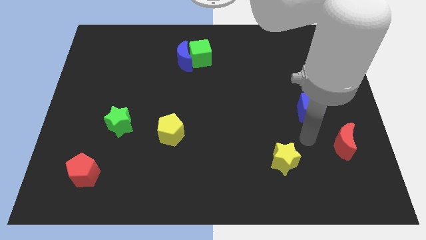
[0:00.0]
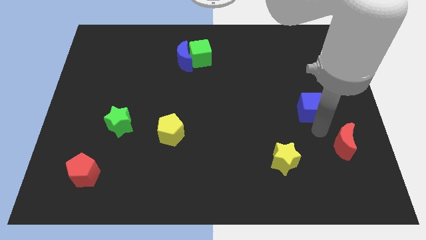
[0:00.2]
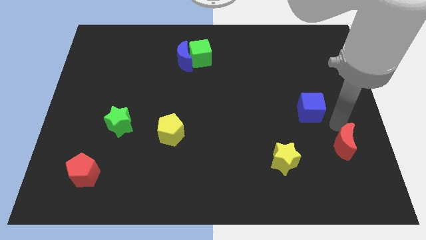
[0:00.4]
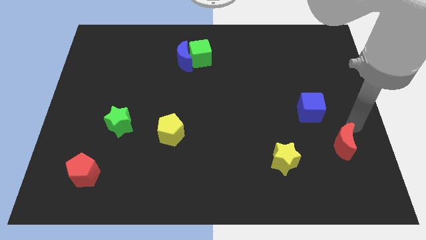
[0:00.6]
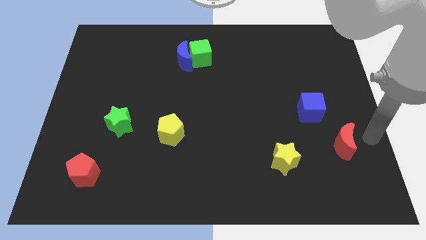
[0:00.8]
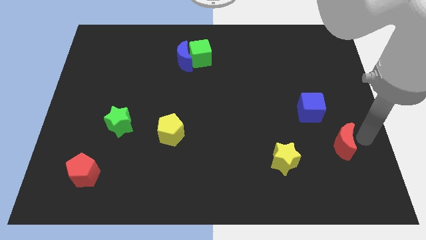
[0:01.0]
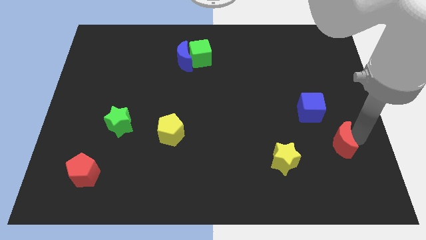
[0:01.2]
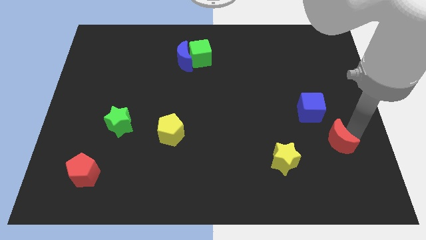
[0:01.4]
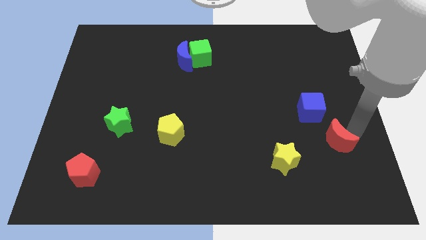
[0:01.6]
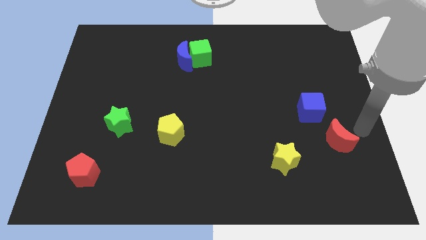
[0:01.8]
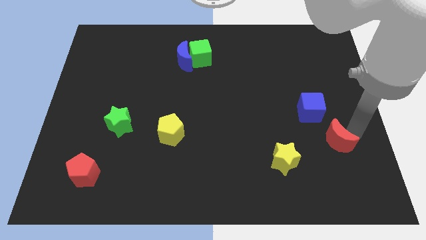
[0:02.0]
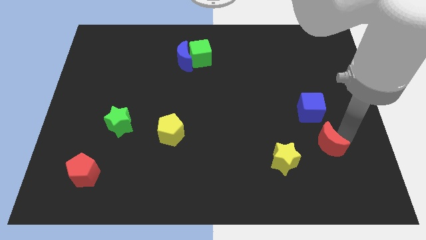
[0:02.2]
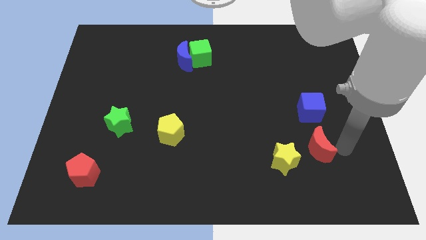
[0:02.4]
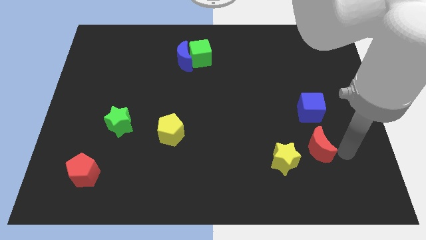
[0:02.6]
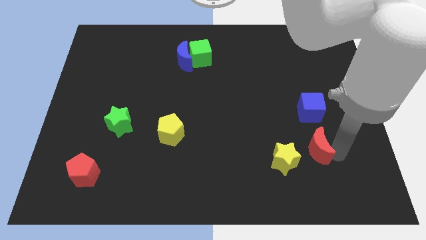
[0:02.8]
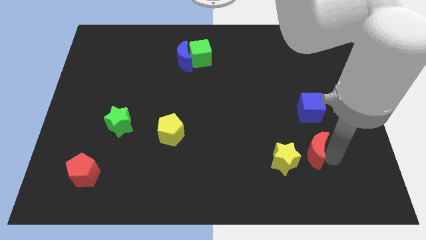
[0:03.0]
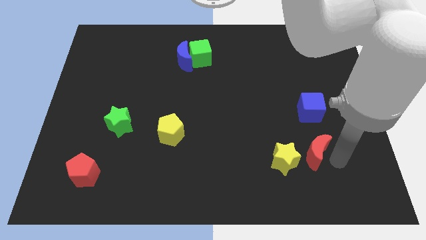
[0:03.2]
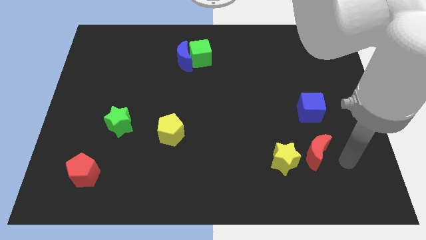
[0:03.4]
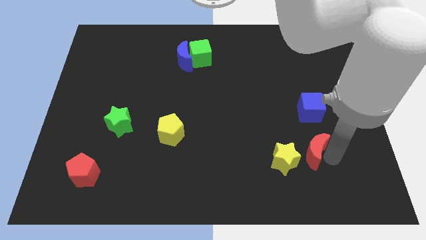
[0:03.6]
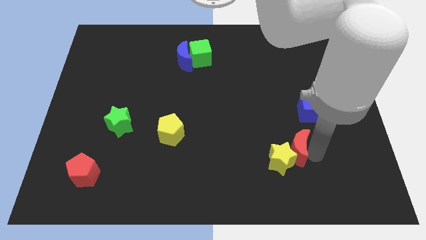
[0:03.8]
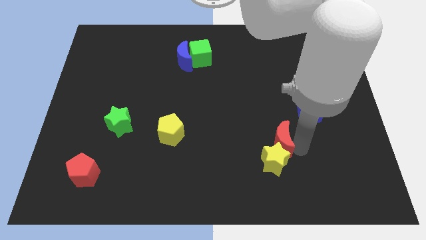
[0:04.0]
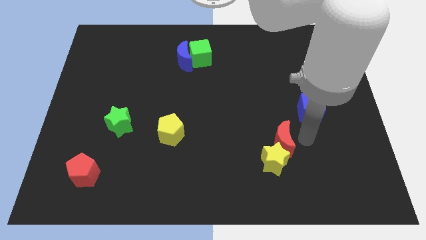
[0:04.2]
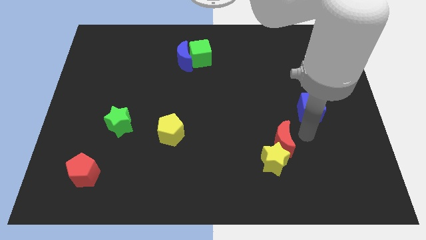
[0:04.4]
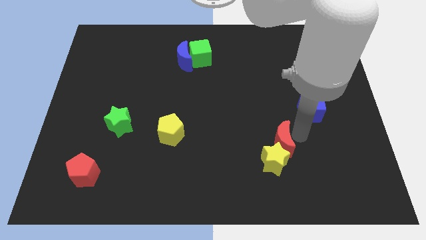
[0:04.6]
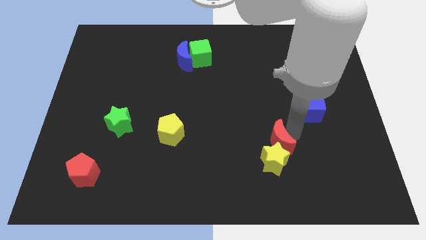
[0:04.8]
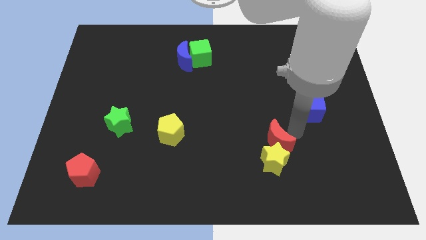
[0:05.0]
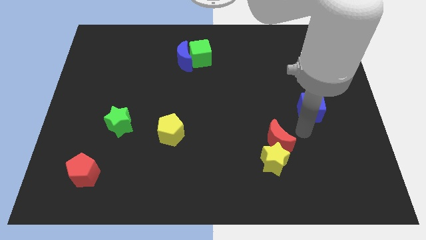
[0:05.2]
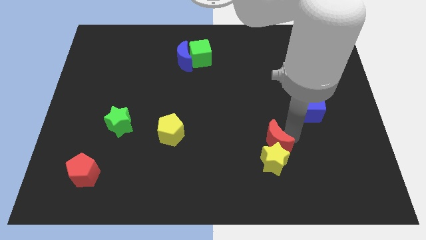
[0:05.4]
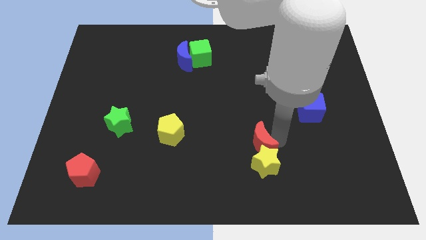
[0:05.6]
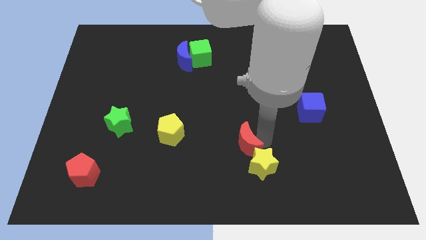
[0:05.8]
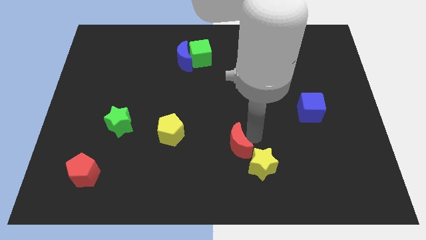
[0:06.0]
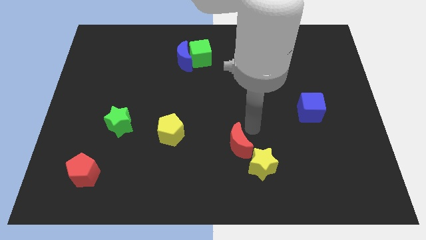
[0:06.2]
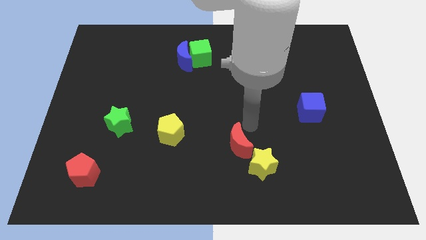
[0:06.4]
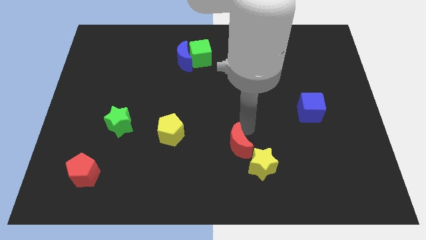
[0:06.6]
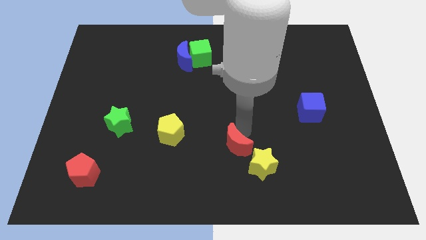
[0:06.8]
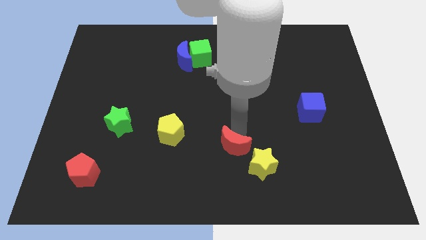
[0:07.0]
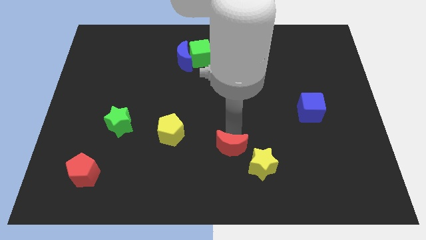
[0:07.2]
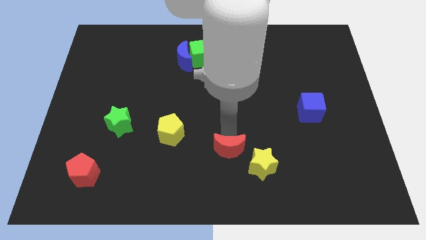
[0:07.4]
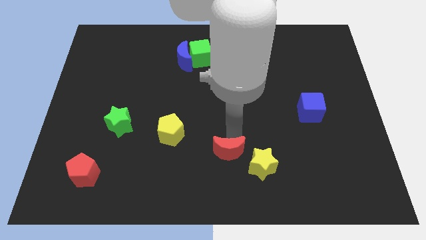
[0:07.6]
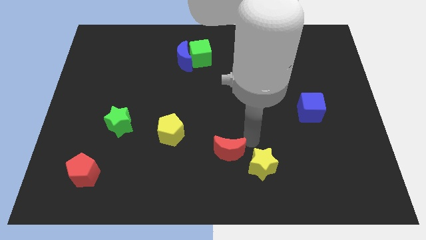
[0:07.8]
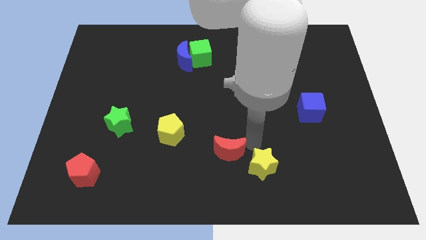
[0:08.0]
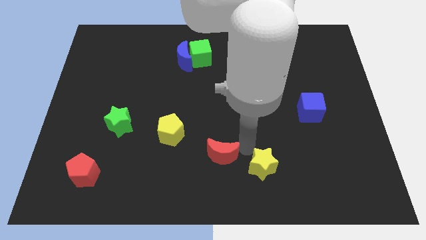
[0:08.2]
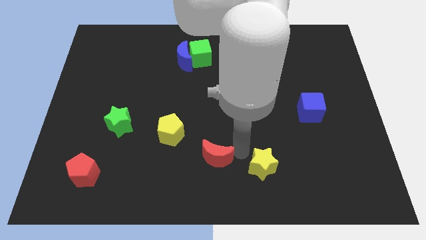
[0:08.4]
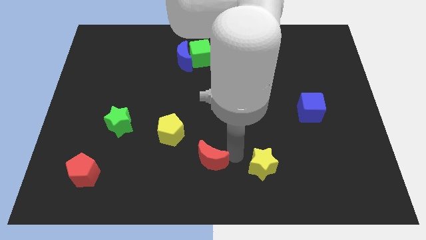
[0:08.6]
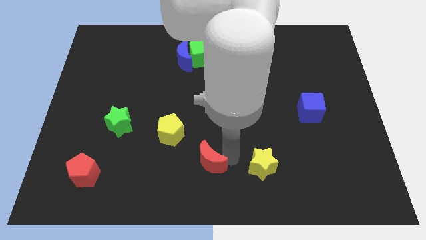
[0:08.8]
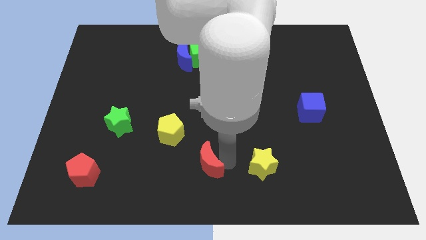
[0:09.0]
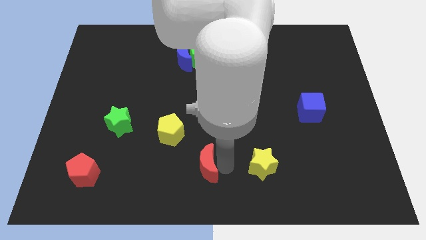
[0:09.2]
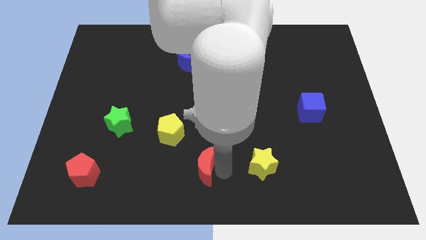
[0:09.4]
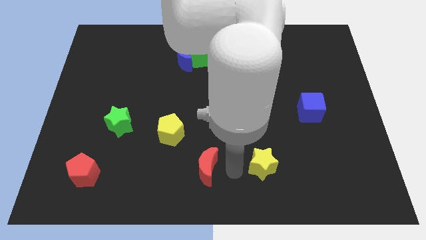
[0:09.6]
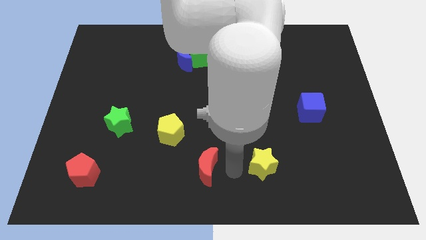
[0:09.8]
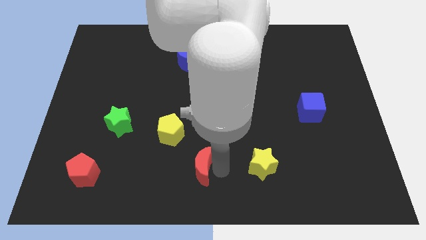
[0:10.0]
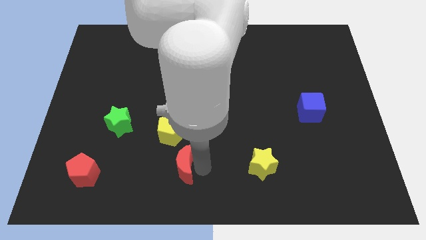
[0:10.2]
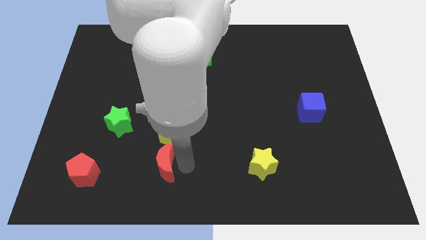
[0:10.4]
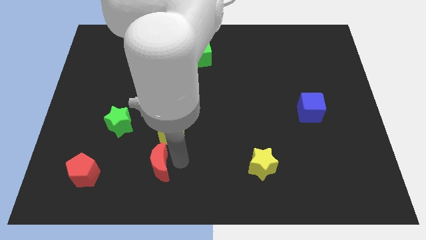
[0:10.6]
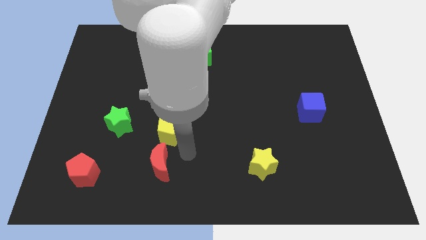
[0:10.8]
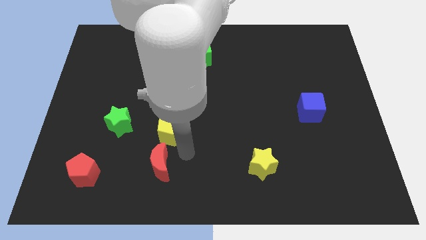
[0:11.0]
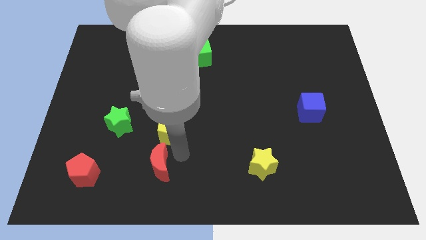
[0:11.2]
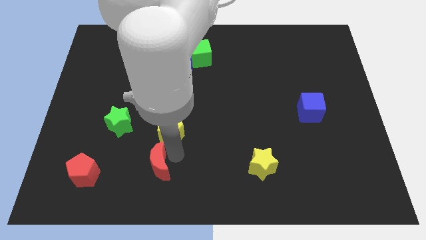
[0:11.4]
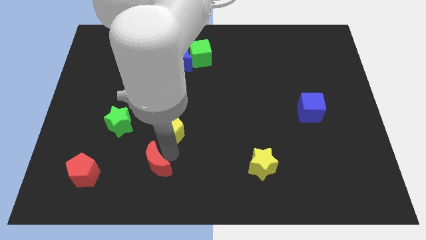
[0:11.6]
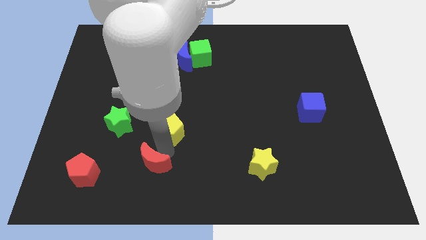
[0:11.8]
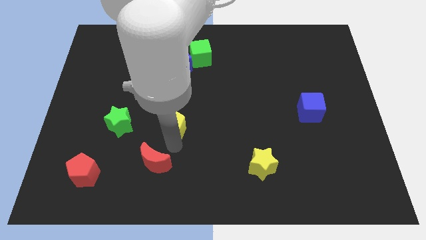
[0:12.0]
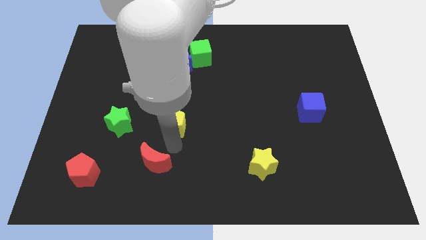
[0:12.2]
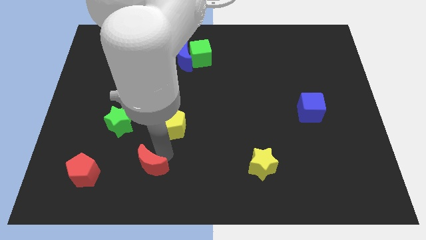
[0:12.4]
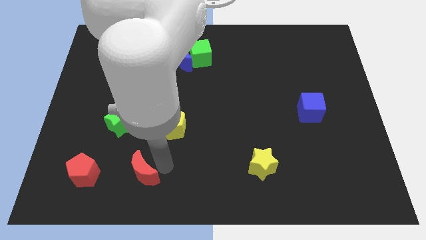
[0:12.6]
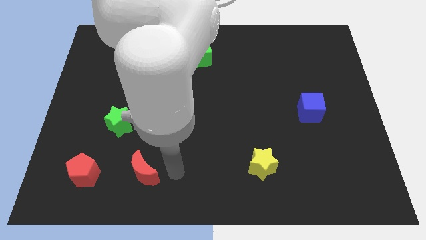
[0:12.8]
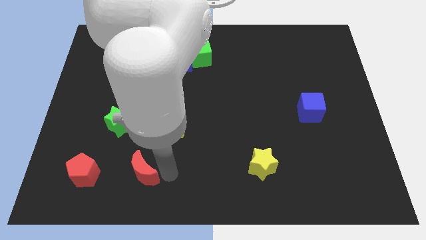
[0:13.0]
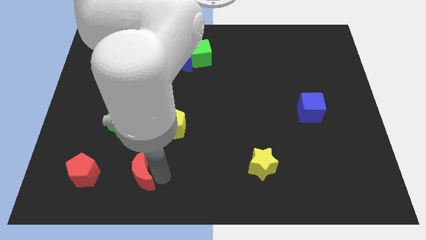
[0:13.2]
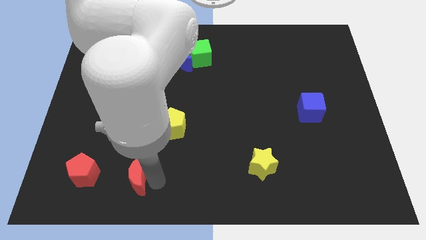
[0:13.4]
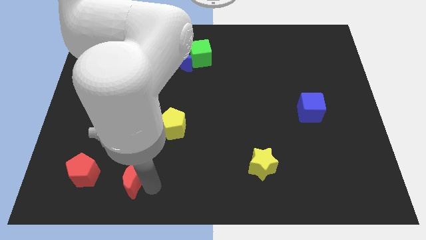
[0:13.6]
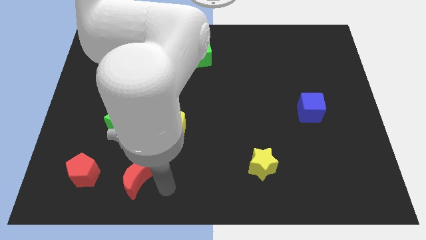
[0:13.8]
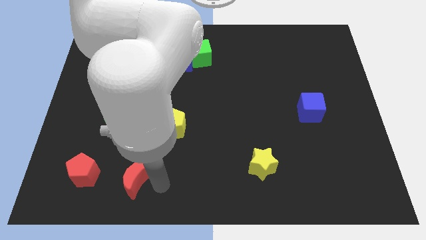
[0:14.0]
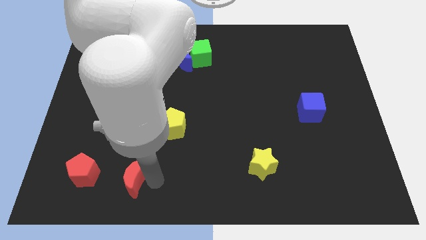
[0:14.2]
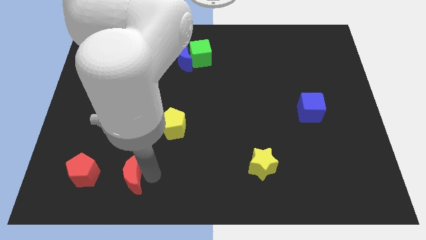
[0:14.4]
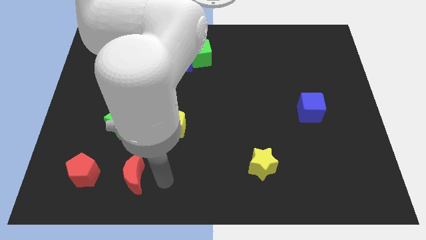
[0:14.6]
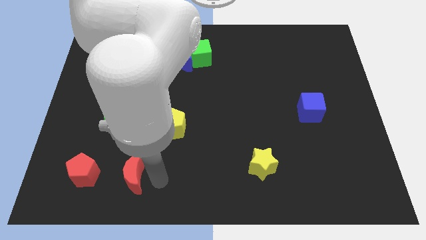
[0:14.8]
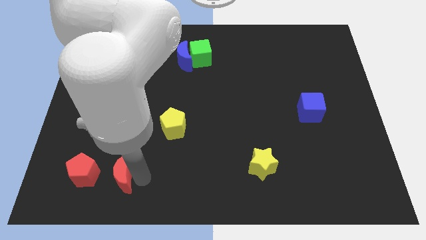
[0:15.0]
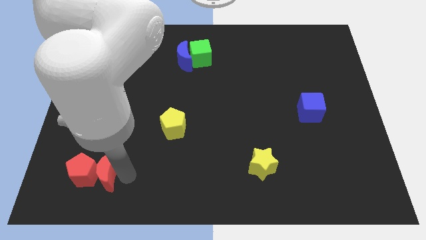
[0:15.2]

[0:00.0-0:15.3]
push the red moon next to the red pentagon
